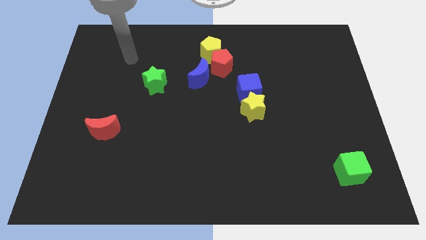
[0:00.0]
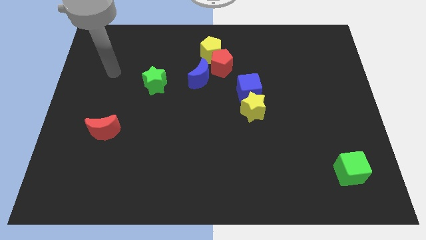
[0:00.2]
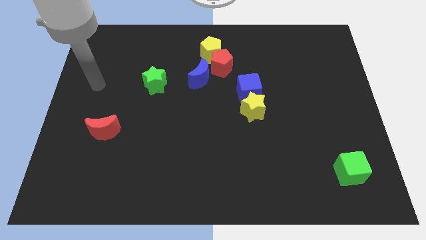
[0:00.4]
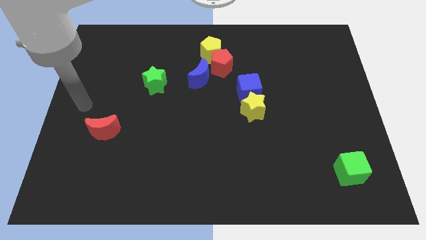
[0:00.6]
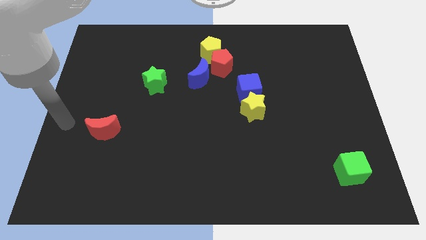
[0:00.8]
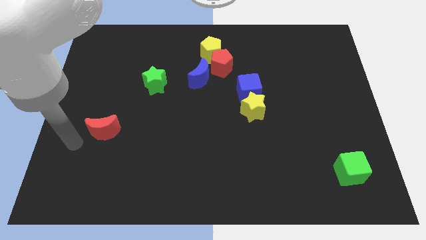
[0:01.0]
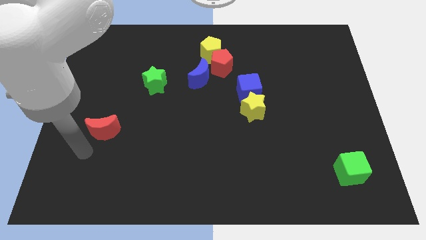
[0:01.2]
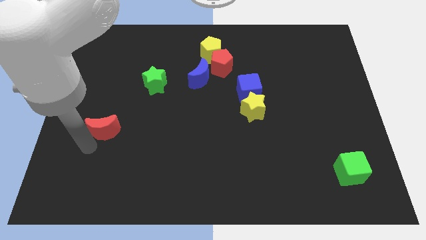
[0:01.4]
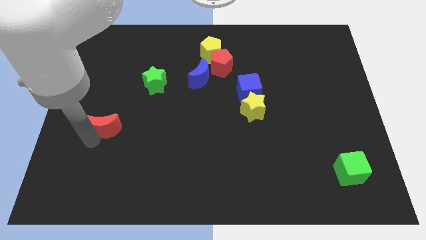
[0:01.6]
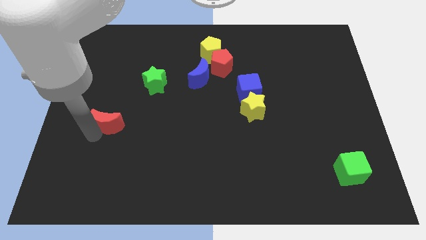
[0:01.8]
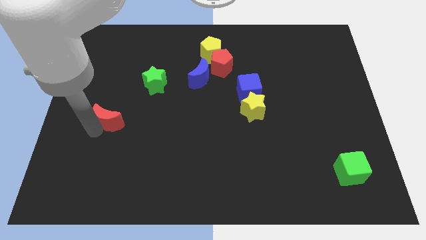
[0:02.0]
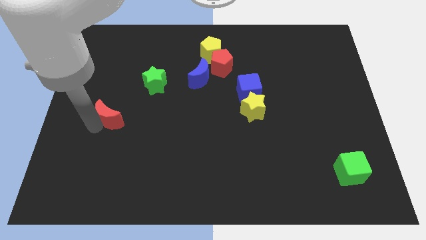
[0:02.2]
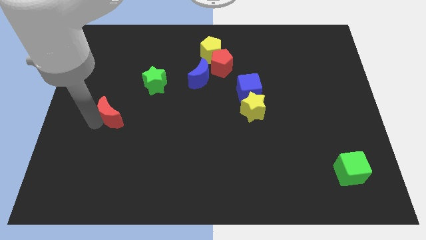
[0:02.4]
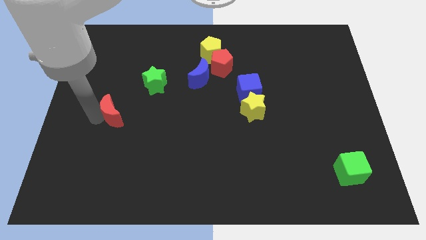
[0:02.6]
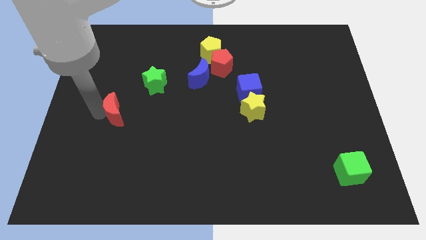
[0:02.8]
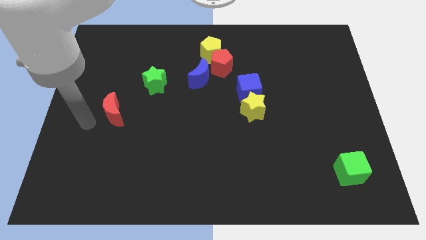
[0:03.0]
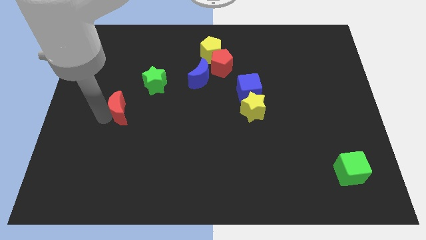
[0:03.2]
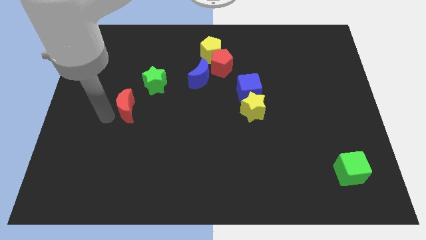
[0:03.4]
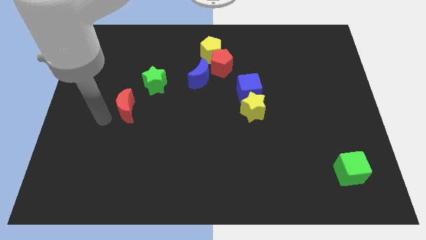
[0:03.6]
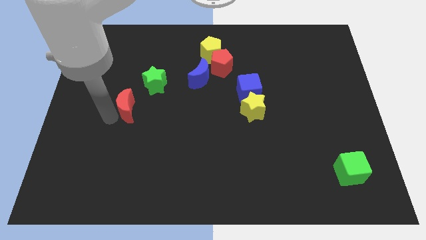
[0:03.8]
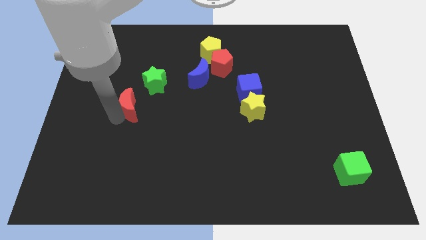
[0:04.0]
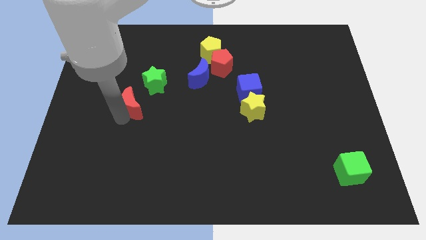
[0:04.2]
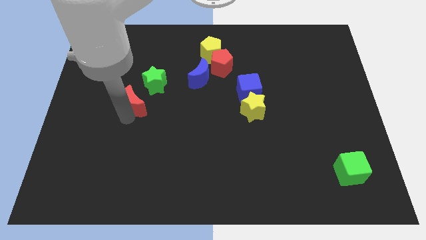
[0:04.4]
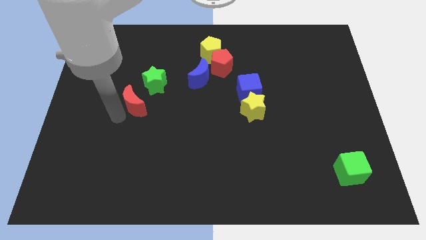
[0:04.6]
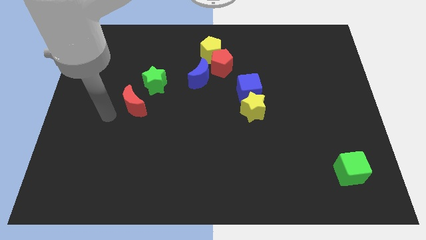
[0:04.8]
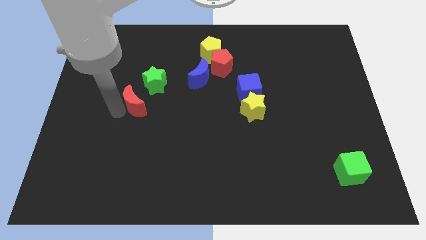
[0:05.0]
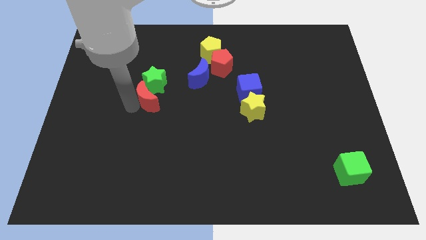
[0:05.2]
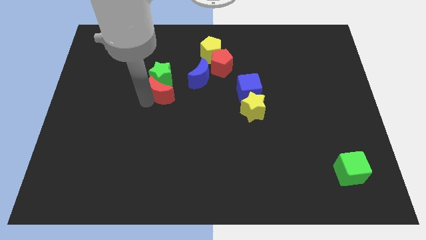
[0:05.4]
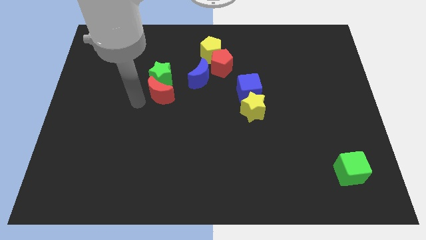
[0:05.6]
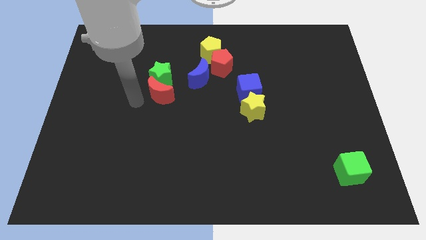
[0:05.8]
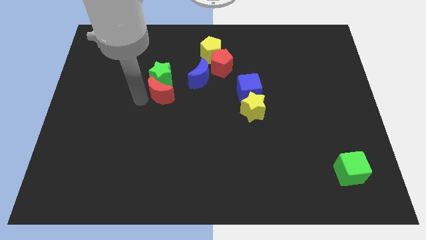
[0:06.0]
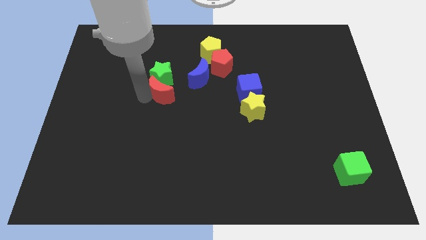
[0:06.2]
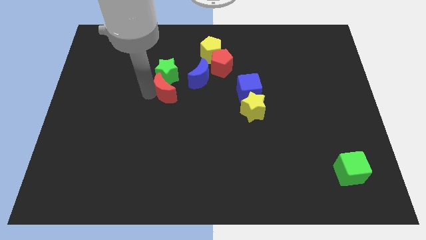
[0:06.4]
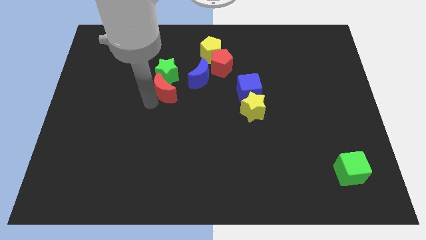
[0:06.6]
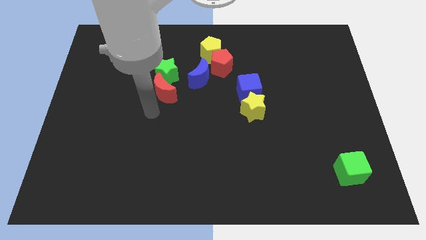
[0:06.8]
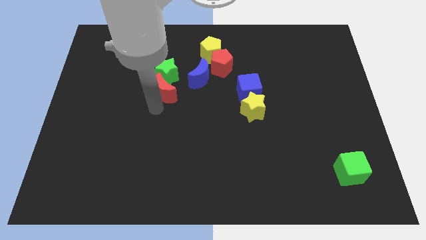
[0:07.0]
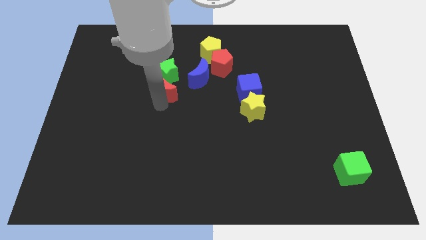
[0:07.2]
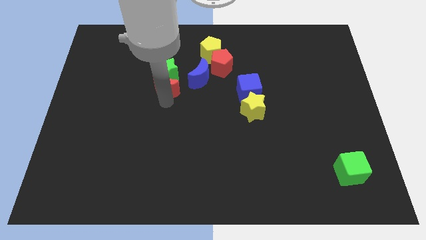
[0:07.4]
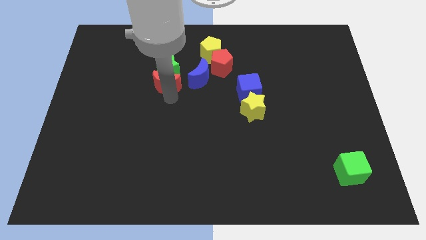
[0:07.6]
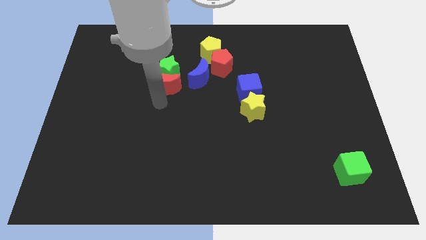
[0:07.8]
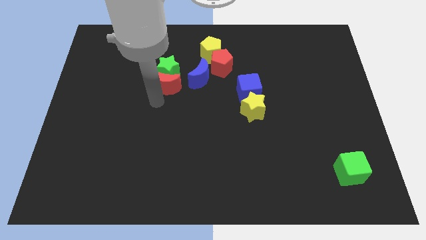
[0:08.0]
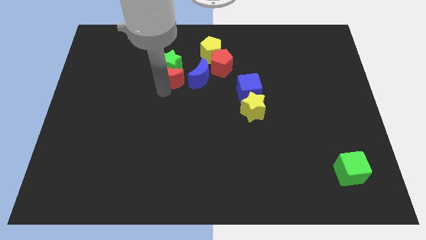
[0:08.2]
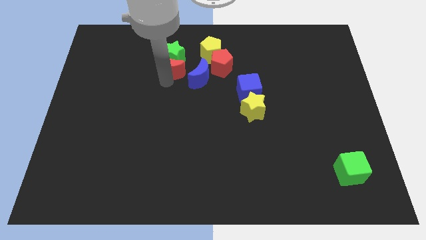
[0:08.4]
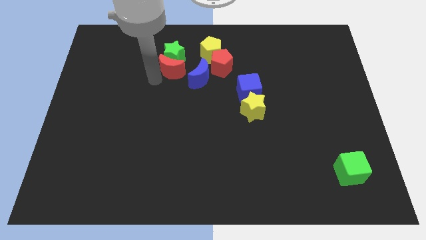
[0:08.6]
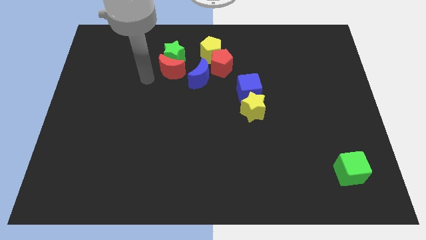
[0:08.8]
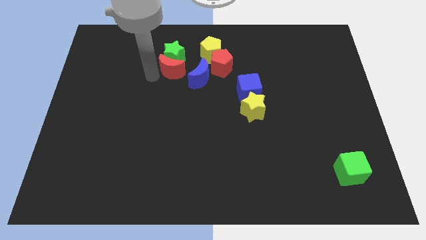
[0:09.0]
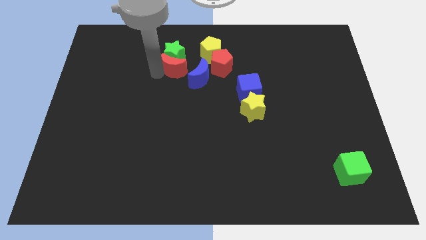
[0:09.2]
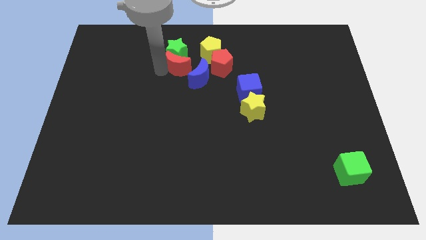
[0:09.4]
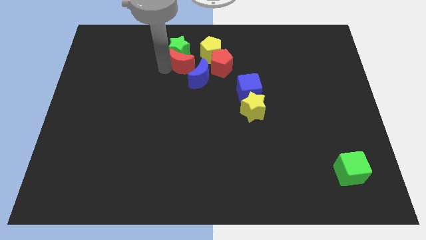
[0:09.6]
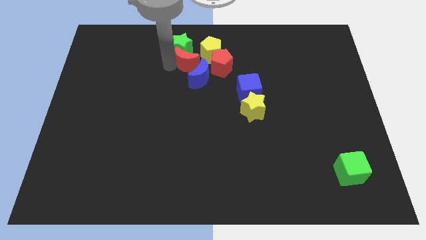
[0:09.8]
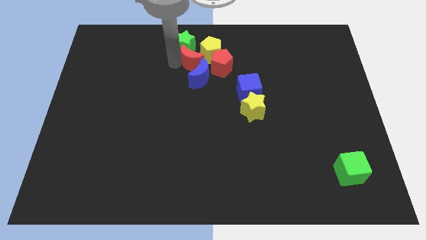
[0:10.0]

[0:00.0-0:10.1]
put the red moon to the yellow pentagon

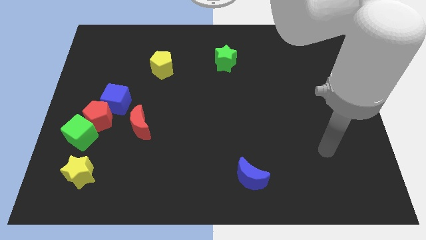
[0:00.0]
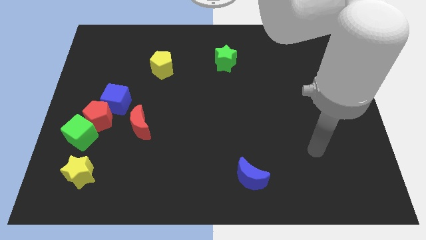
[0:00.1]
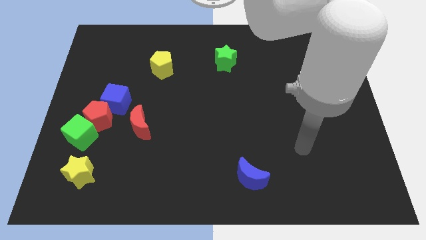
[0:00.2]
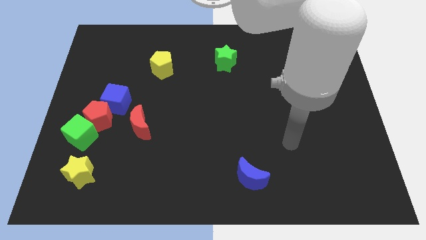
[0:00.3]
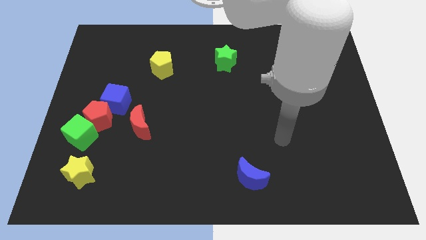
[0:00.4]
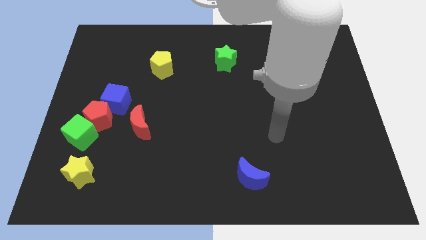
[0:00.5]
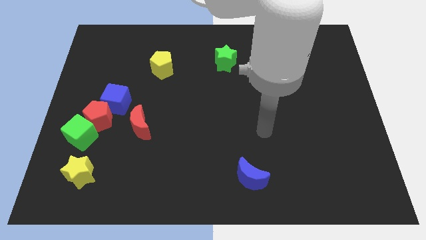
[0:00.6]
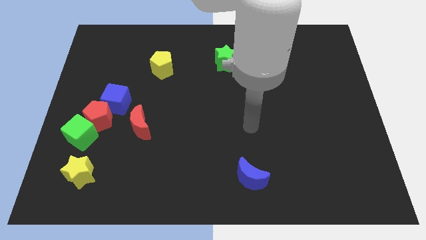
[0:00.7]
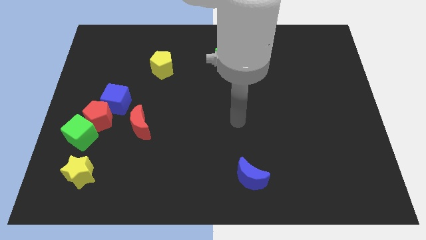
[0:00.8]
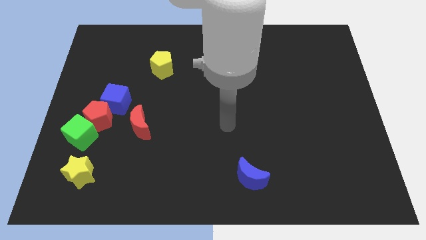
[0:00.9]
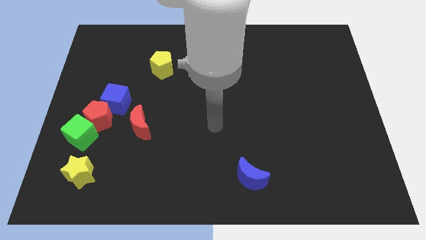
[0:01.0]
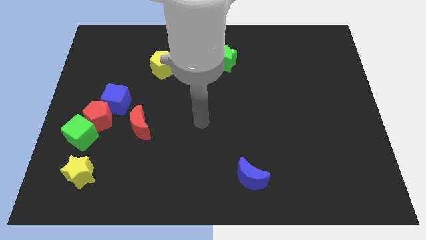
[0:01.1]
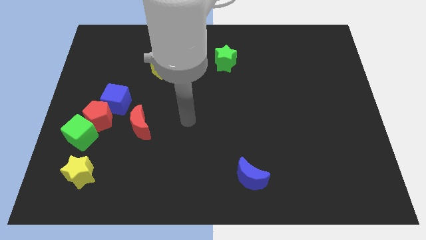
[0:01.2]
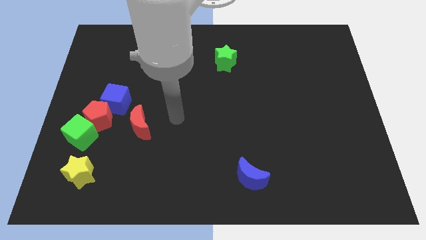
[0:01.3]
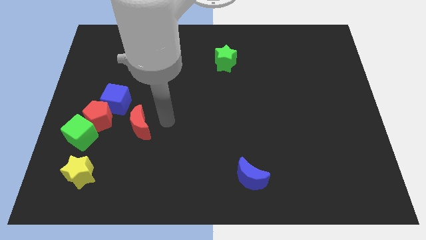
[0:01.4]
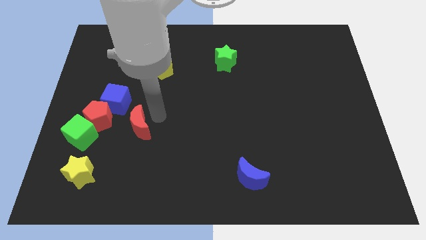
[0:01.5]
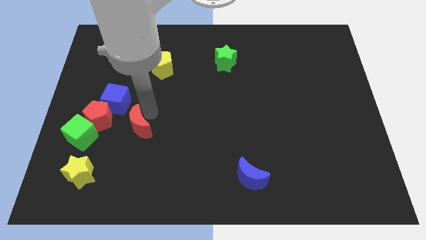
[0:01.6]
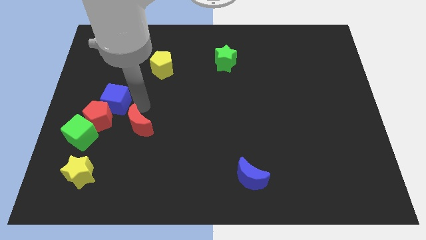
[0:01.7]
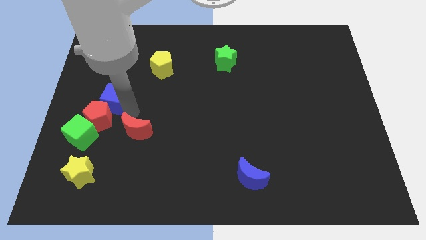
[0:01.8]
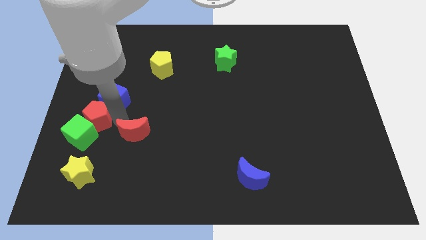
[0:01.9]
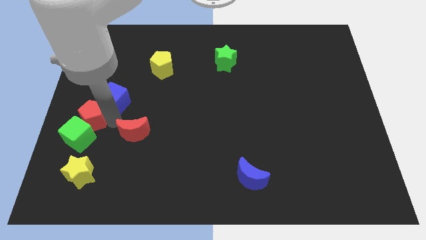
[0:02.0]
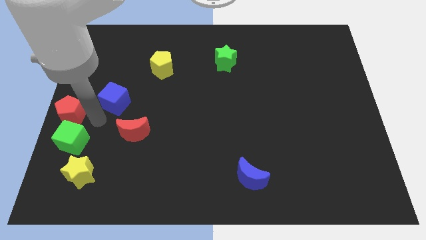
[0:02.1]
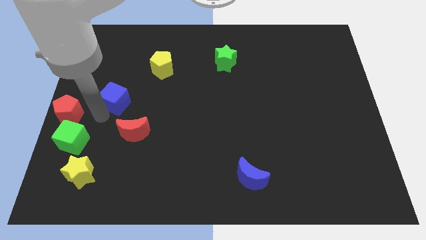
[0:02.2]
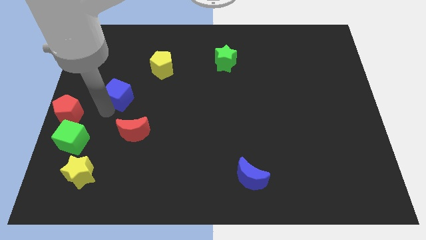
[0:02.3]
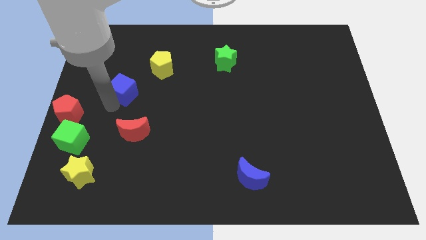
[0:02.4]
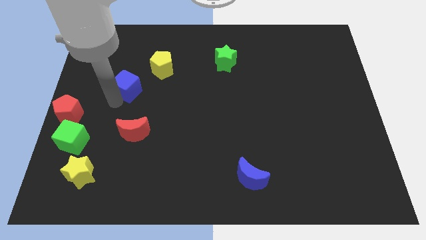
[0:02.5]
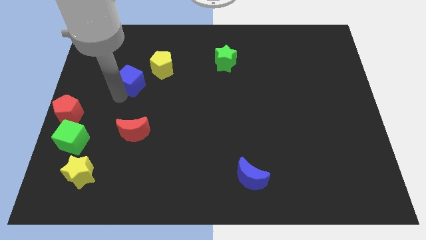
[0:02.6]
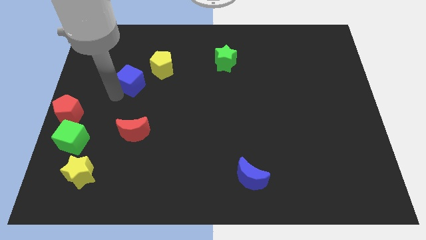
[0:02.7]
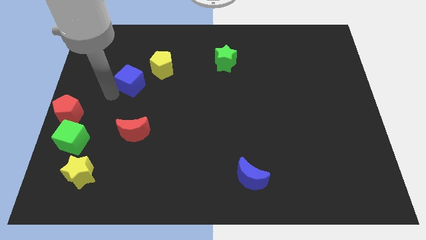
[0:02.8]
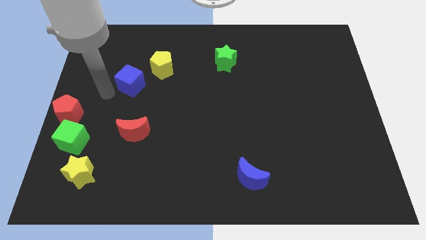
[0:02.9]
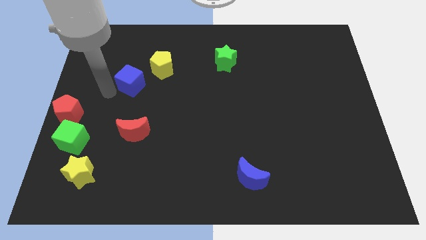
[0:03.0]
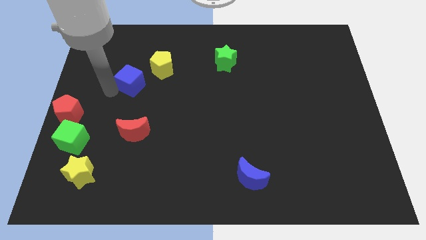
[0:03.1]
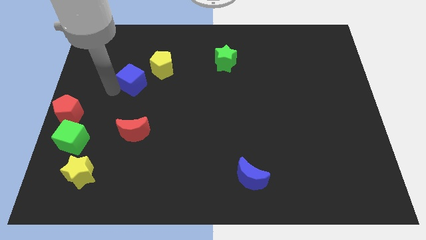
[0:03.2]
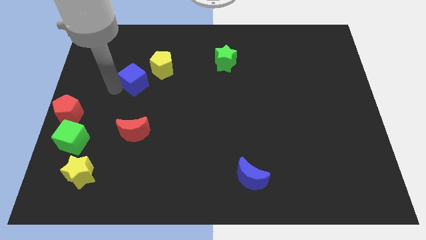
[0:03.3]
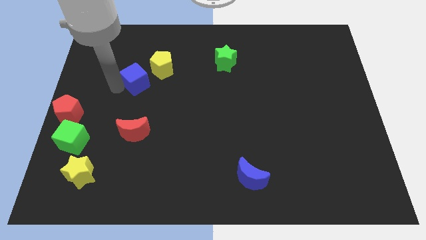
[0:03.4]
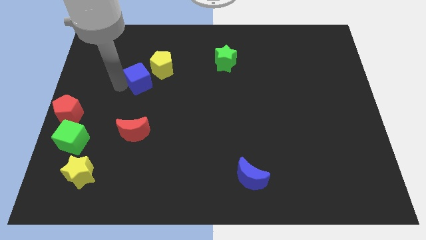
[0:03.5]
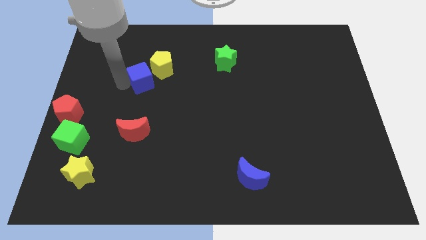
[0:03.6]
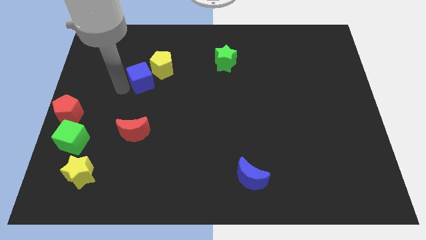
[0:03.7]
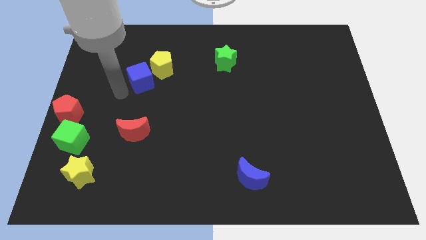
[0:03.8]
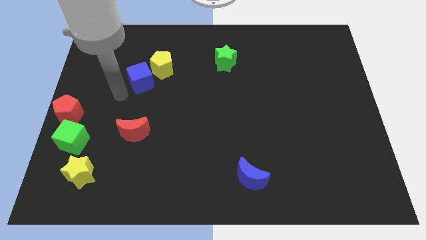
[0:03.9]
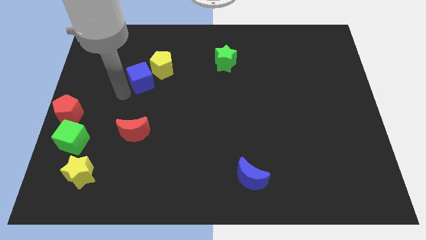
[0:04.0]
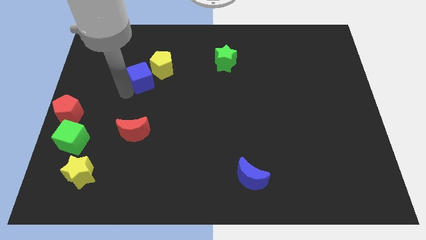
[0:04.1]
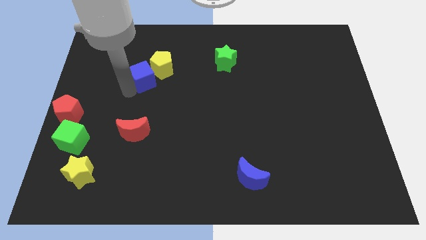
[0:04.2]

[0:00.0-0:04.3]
put the blue cube to the yellow pentagon
